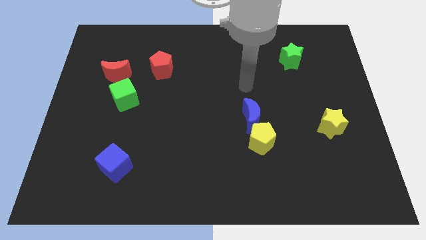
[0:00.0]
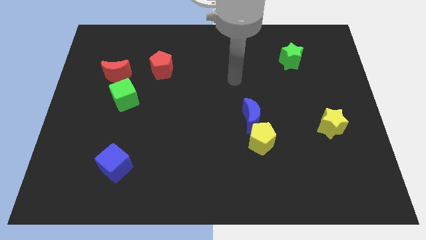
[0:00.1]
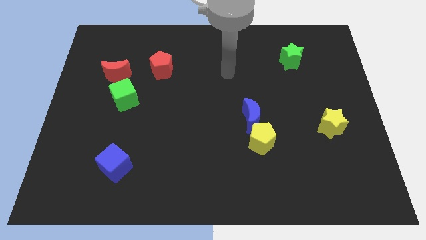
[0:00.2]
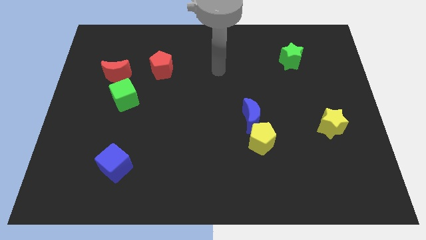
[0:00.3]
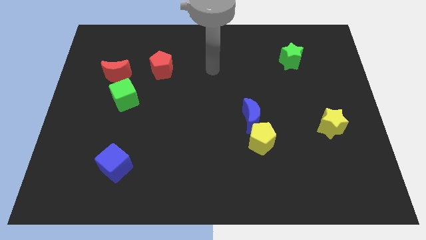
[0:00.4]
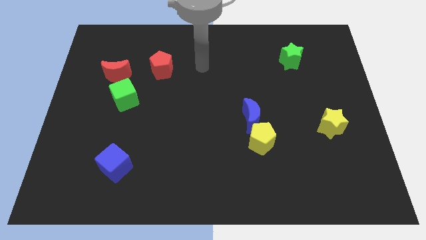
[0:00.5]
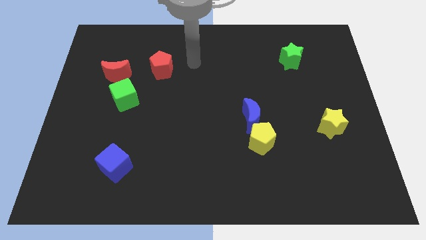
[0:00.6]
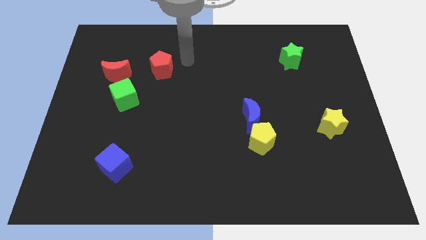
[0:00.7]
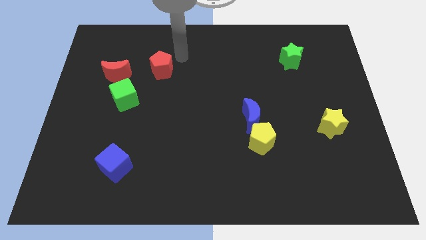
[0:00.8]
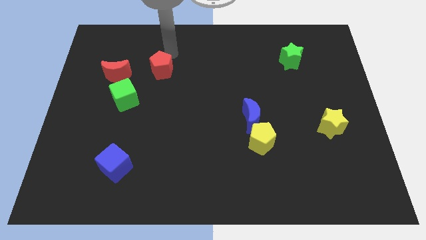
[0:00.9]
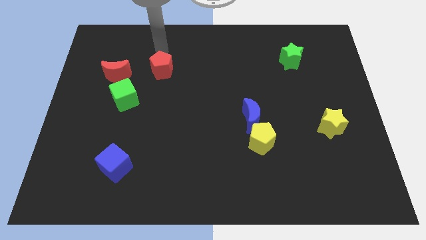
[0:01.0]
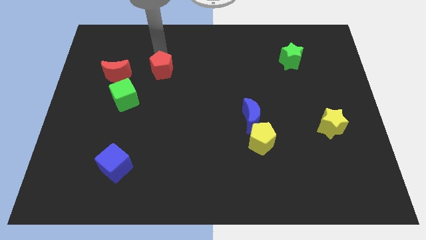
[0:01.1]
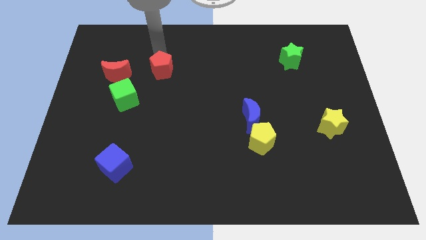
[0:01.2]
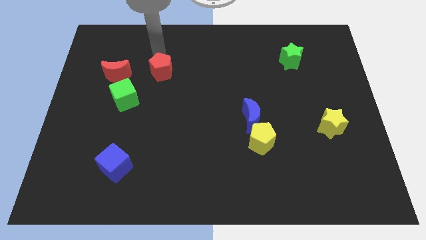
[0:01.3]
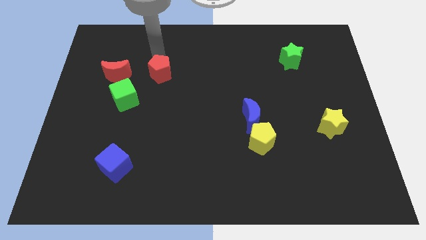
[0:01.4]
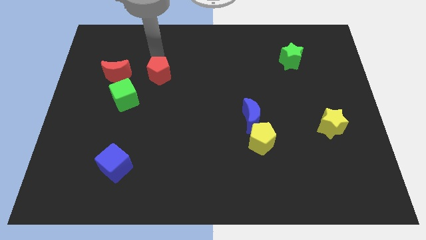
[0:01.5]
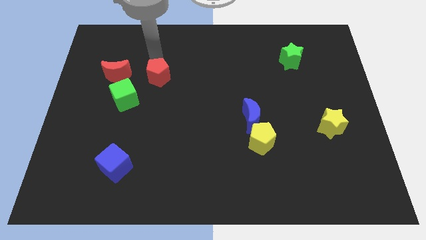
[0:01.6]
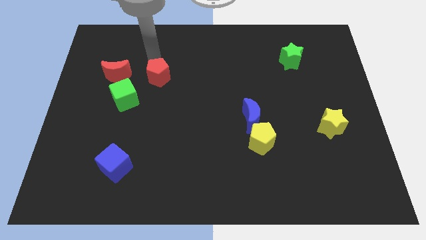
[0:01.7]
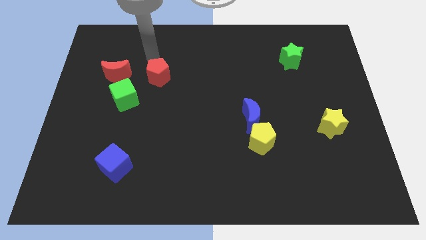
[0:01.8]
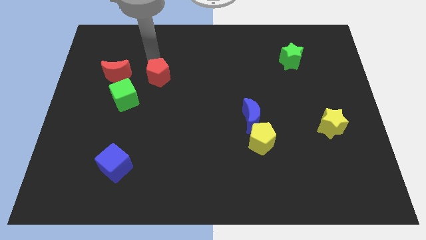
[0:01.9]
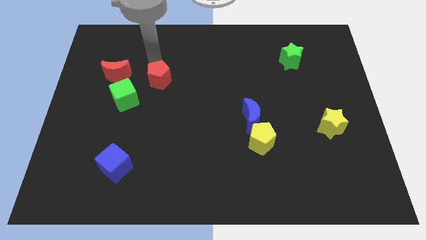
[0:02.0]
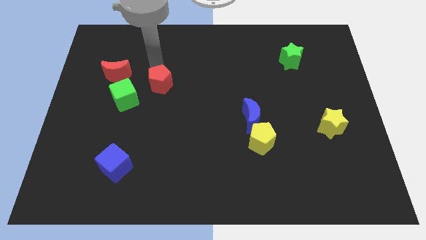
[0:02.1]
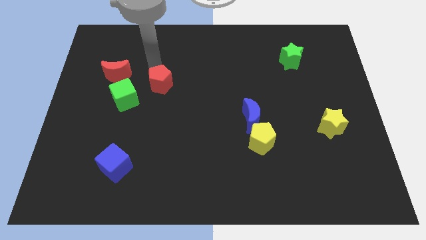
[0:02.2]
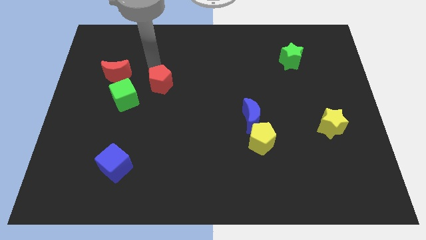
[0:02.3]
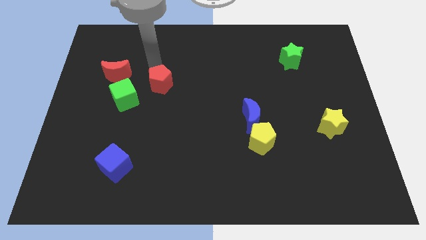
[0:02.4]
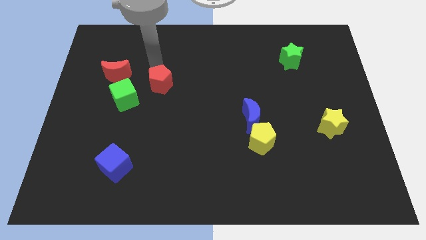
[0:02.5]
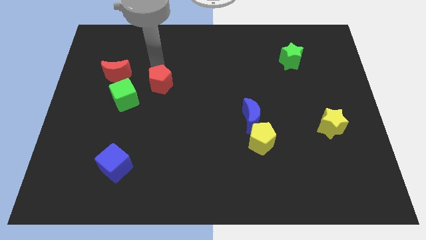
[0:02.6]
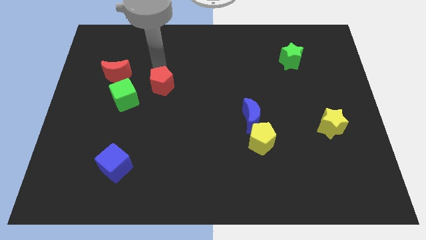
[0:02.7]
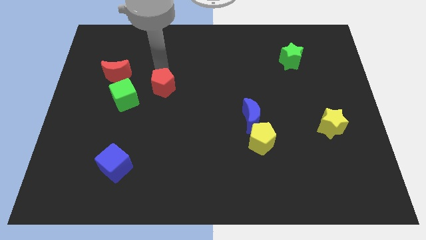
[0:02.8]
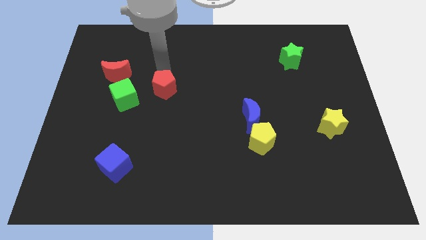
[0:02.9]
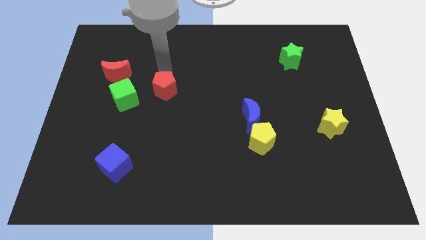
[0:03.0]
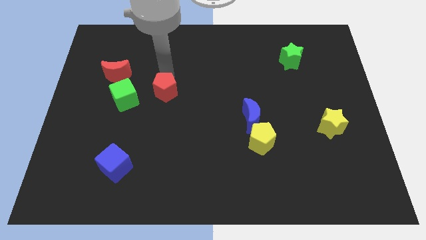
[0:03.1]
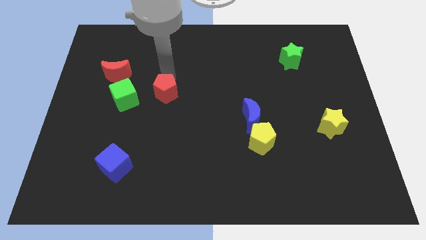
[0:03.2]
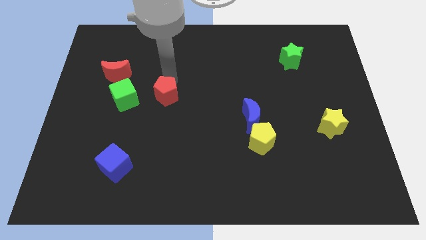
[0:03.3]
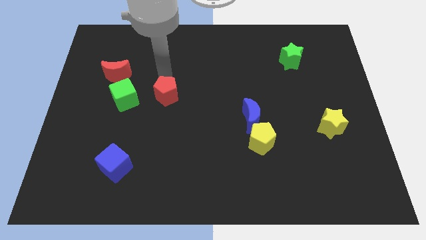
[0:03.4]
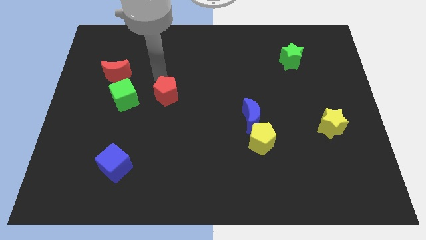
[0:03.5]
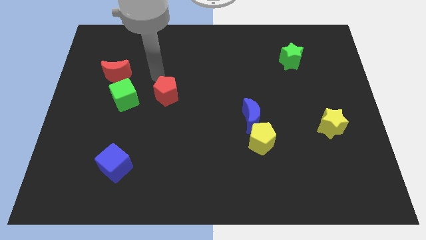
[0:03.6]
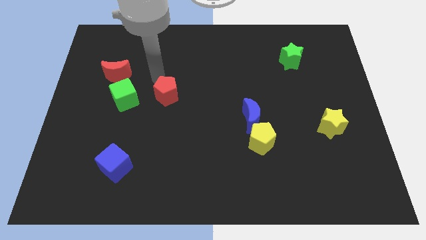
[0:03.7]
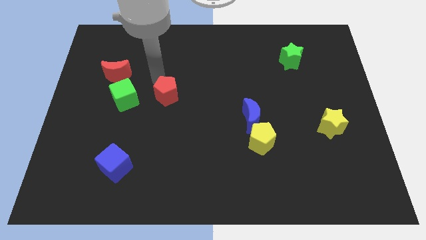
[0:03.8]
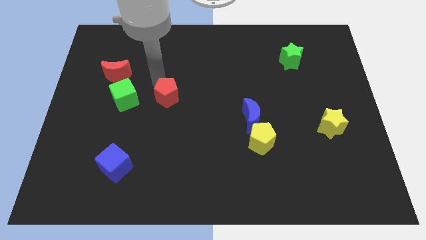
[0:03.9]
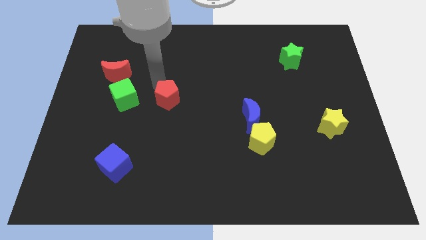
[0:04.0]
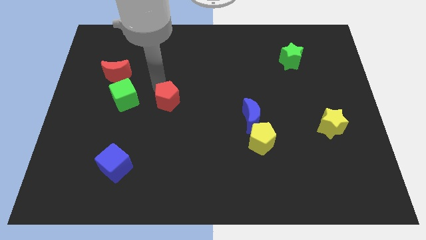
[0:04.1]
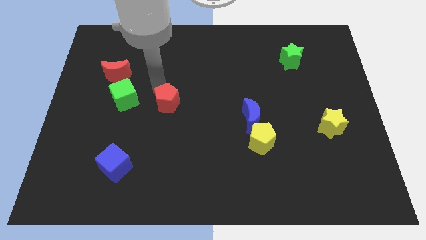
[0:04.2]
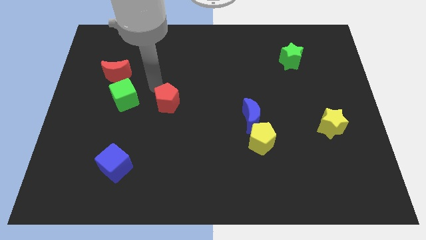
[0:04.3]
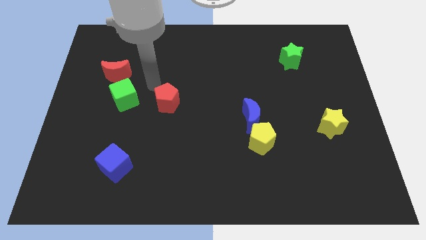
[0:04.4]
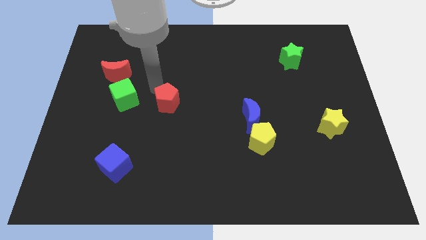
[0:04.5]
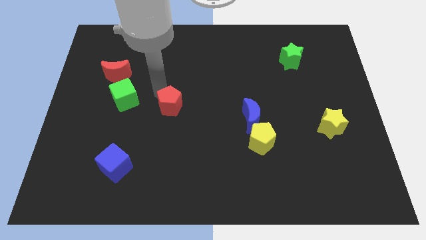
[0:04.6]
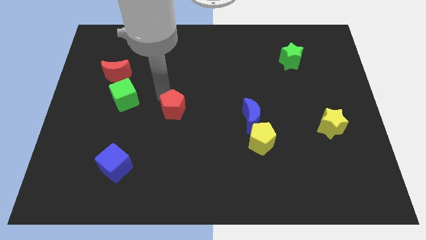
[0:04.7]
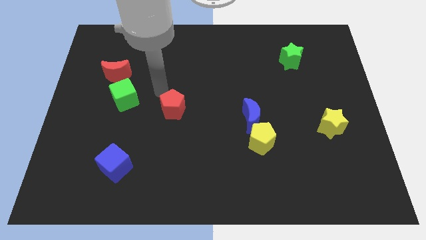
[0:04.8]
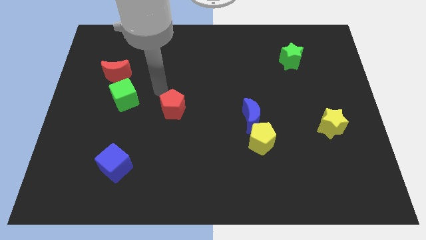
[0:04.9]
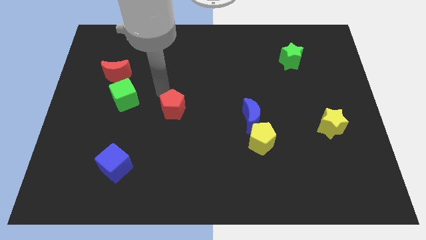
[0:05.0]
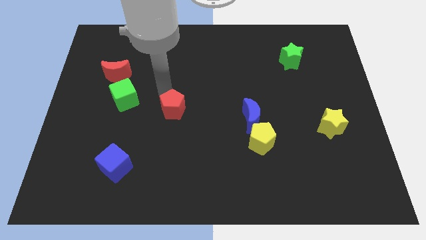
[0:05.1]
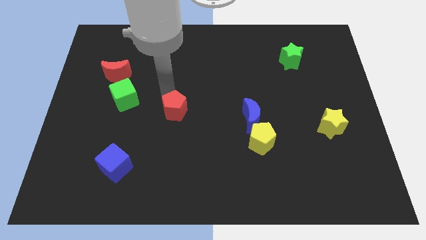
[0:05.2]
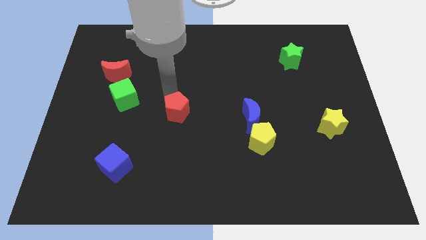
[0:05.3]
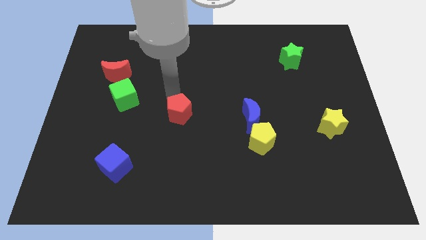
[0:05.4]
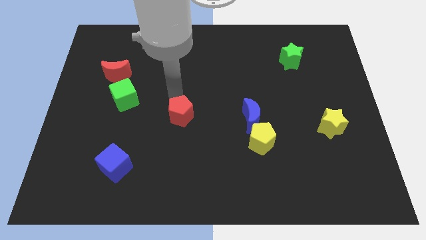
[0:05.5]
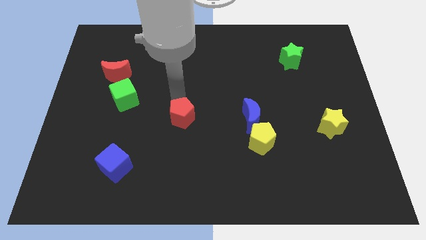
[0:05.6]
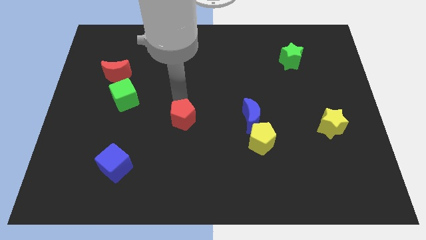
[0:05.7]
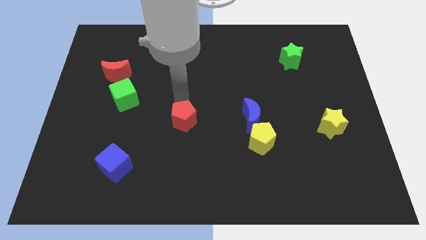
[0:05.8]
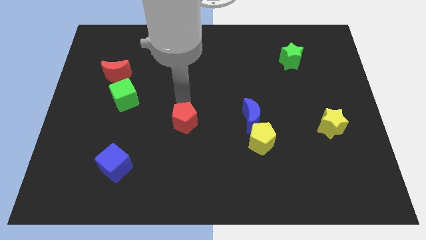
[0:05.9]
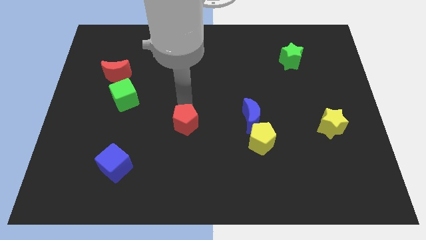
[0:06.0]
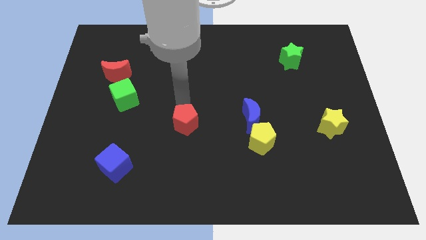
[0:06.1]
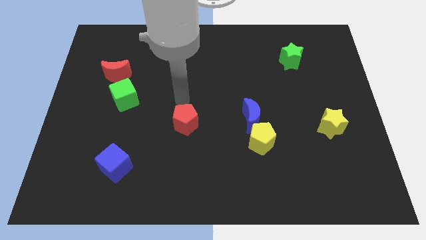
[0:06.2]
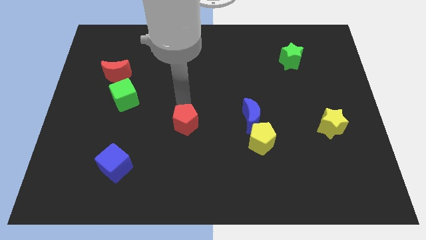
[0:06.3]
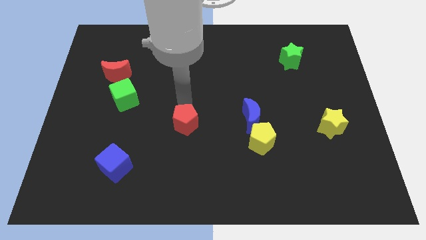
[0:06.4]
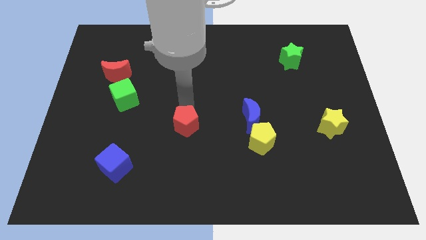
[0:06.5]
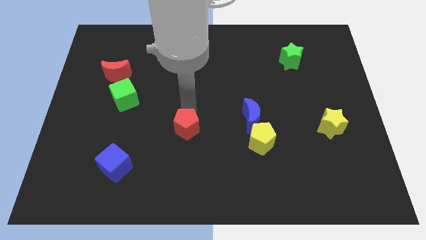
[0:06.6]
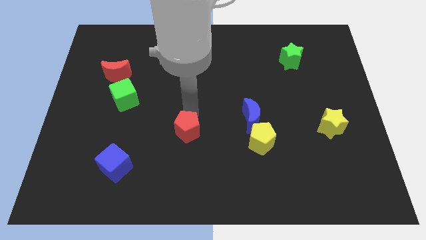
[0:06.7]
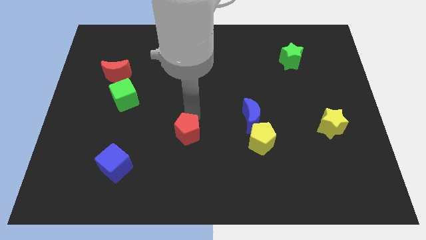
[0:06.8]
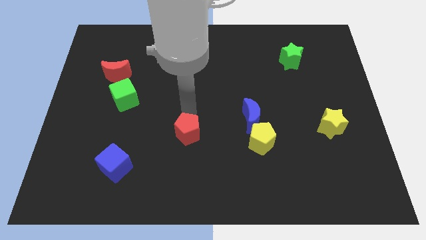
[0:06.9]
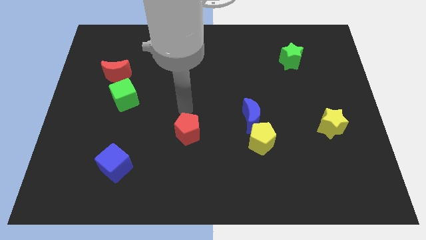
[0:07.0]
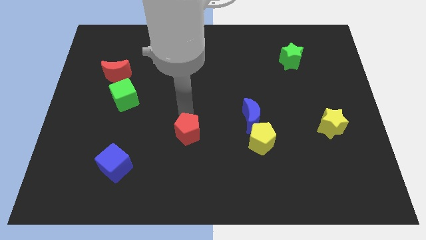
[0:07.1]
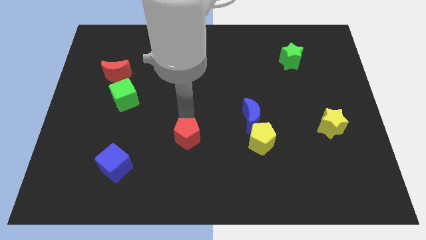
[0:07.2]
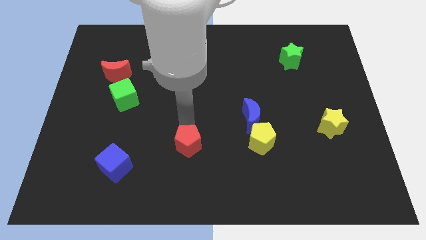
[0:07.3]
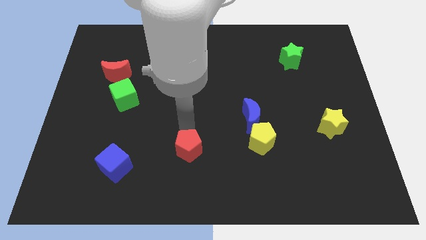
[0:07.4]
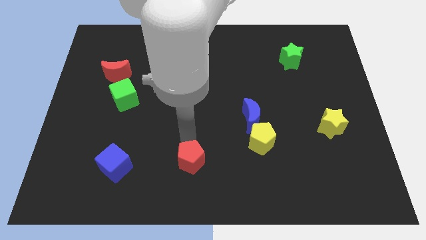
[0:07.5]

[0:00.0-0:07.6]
push the red pentagon to the bottom side
